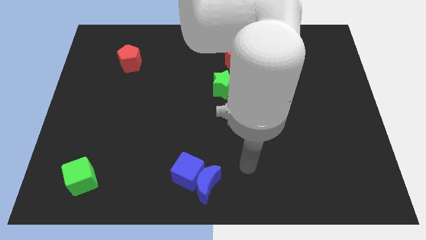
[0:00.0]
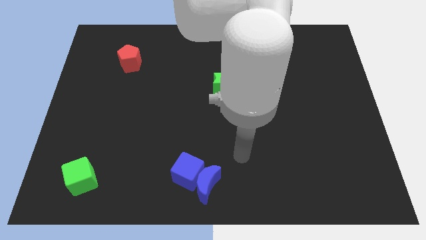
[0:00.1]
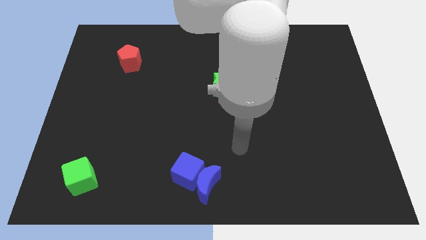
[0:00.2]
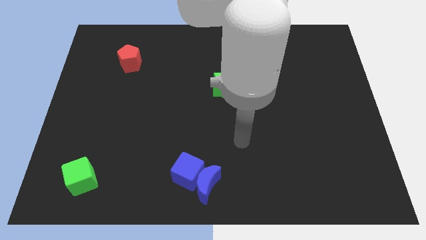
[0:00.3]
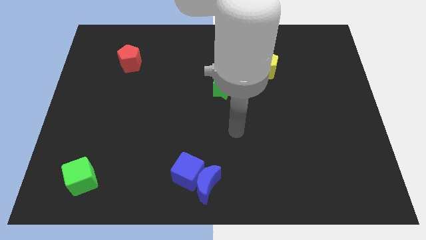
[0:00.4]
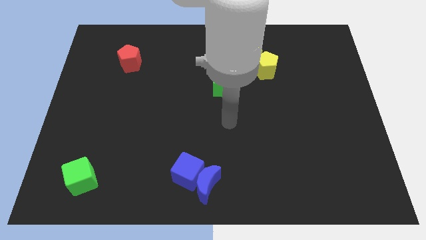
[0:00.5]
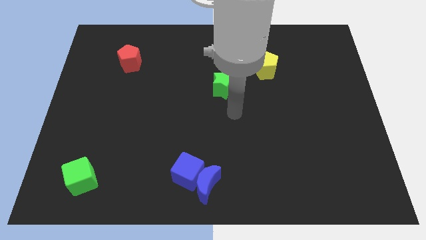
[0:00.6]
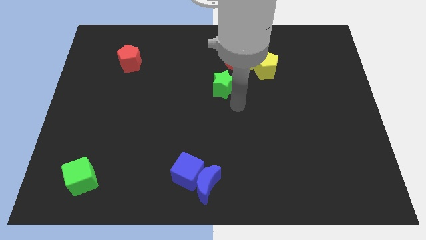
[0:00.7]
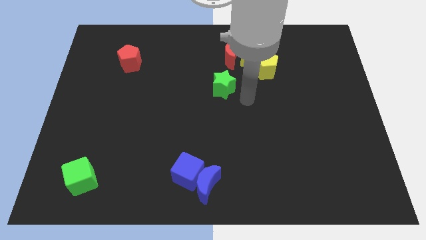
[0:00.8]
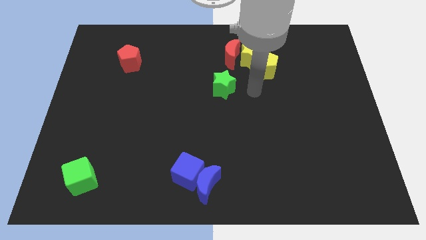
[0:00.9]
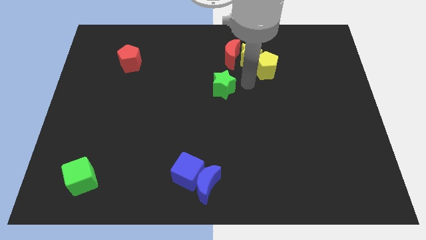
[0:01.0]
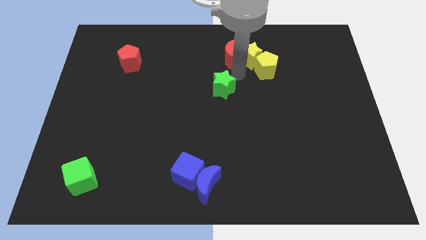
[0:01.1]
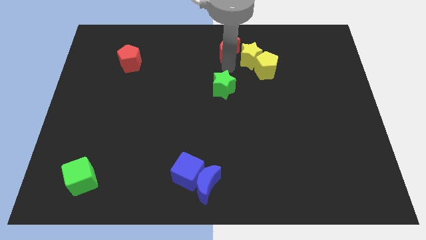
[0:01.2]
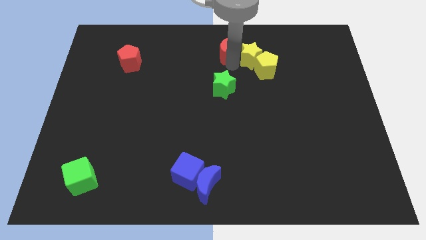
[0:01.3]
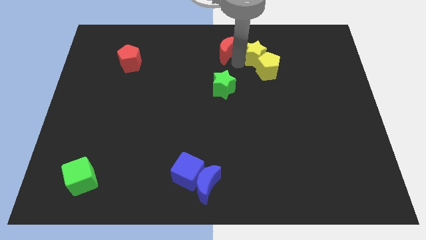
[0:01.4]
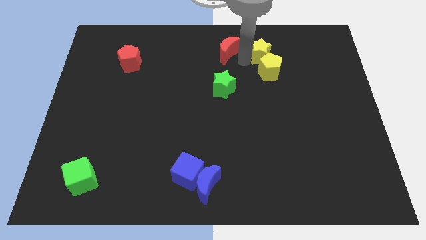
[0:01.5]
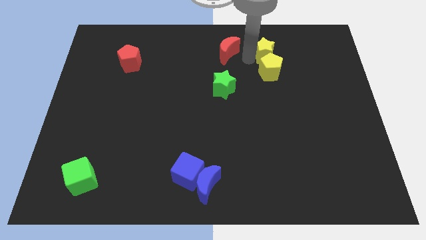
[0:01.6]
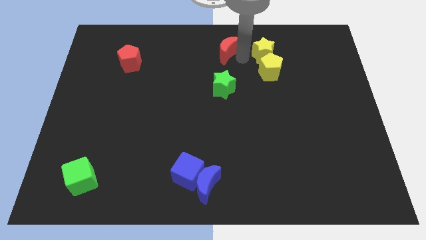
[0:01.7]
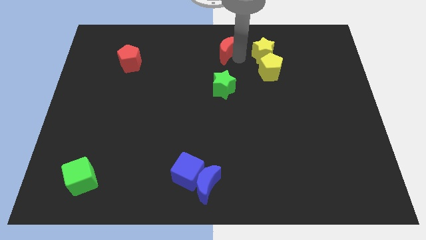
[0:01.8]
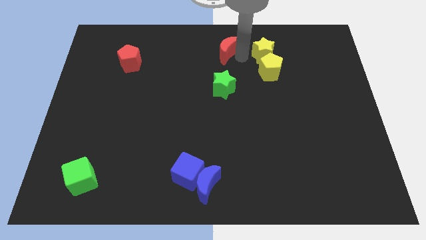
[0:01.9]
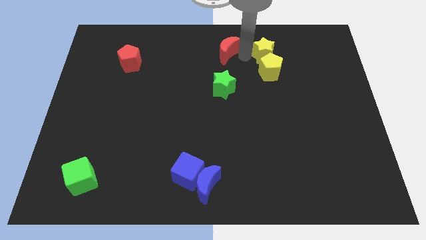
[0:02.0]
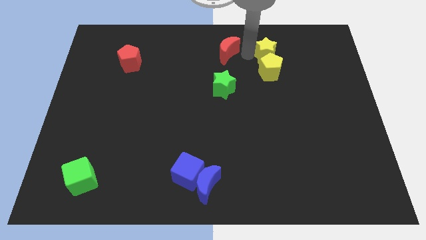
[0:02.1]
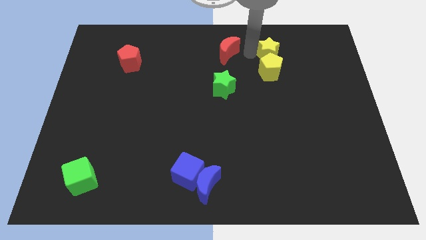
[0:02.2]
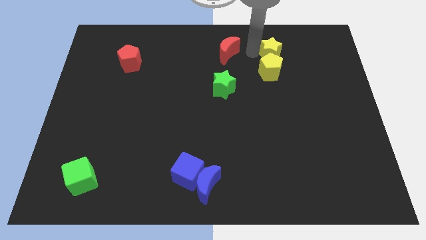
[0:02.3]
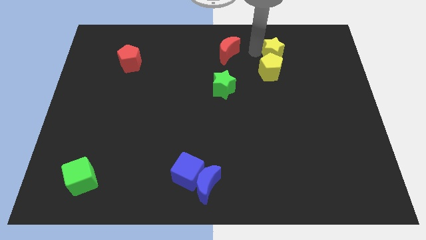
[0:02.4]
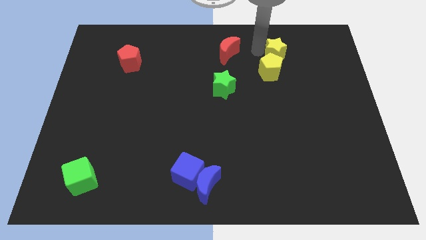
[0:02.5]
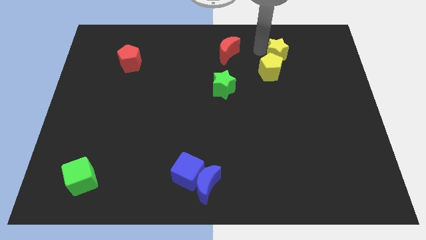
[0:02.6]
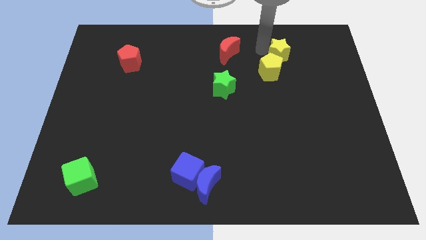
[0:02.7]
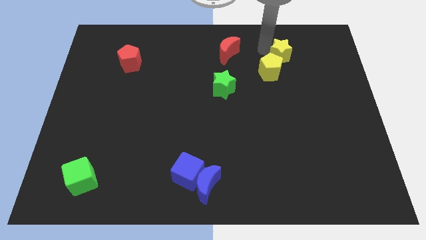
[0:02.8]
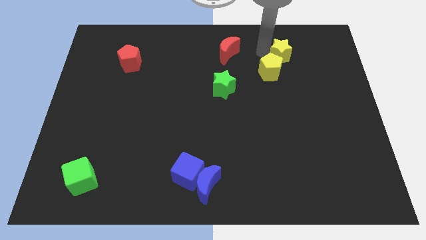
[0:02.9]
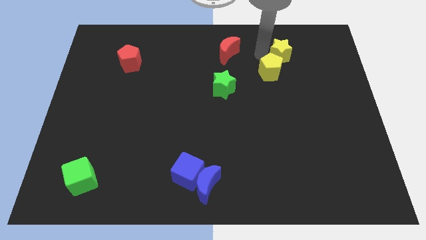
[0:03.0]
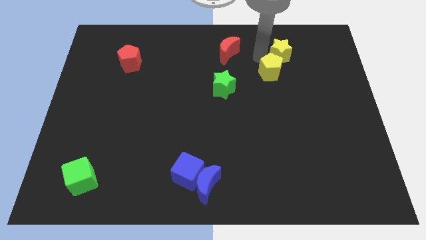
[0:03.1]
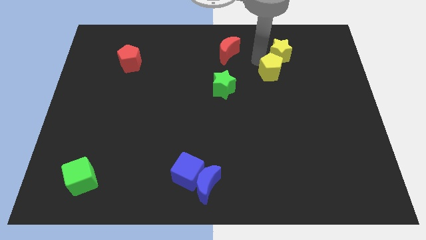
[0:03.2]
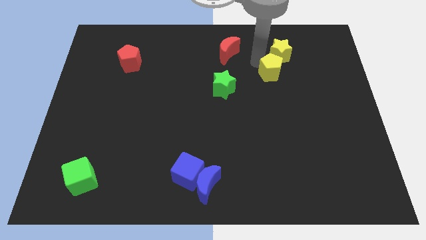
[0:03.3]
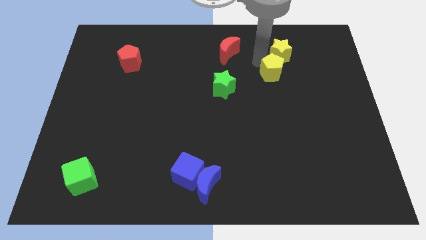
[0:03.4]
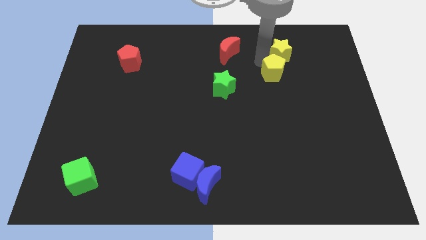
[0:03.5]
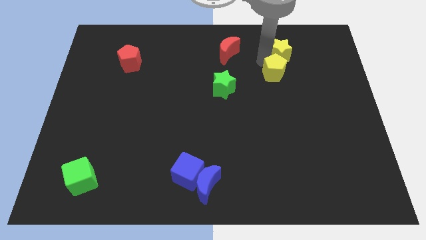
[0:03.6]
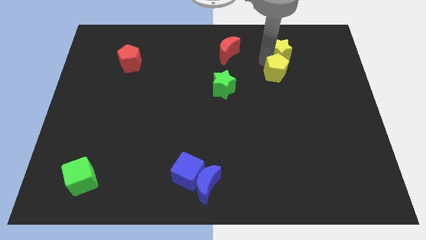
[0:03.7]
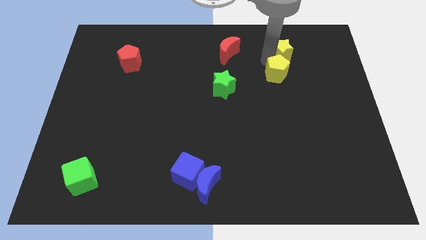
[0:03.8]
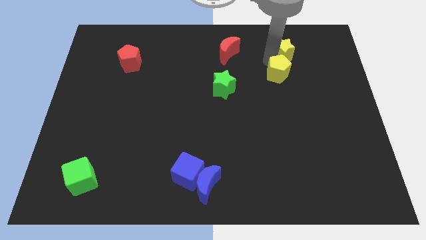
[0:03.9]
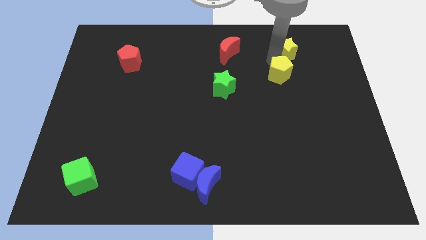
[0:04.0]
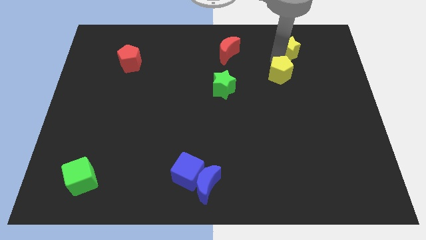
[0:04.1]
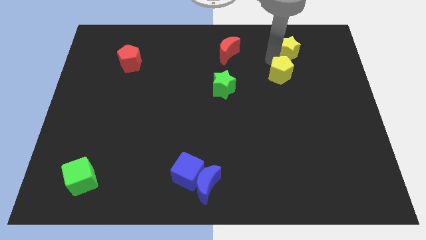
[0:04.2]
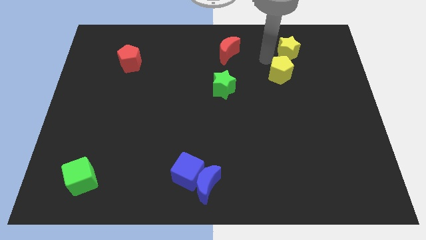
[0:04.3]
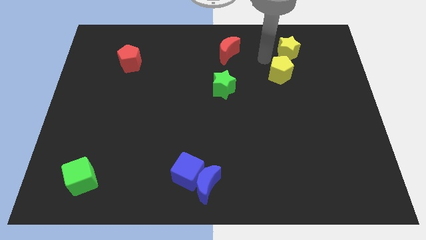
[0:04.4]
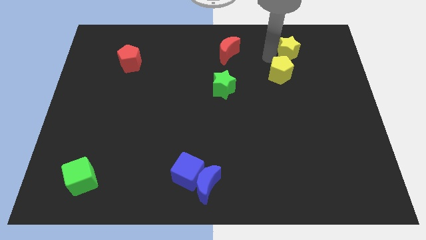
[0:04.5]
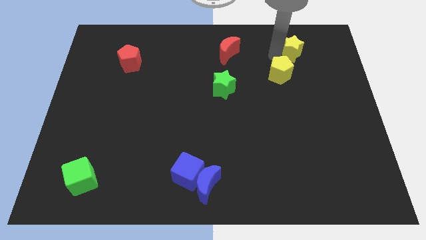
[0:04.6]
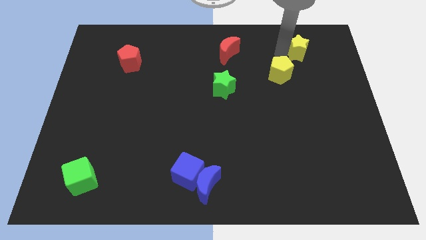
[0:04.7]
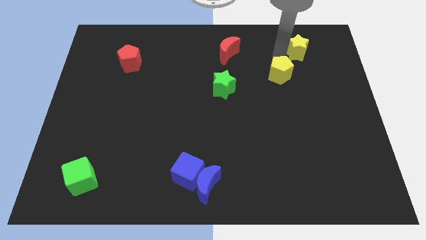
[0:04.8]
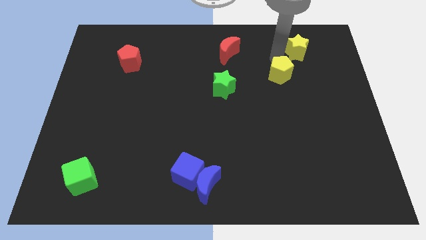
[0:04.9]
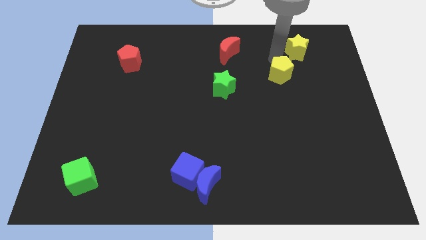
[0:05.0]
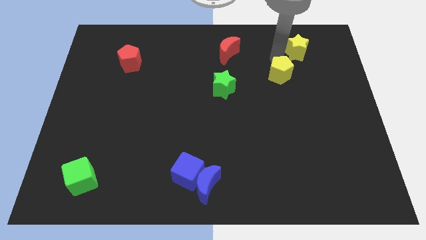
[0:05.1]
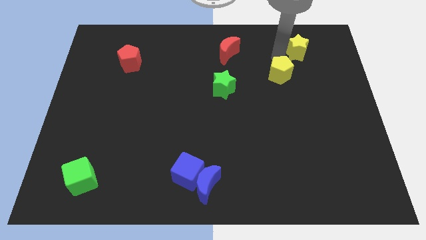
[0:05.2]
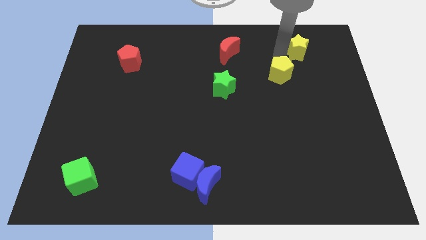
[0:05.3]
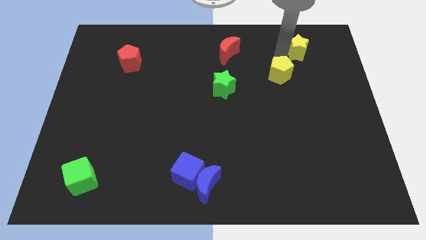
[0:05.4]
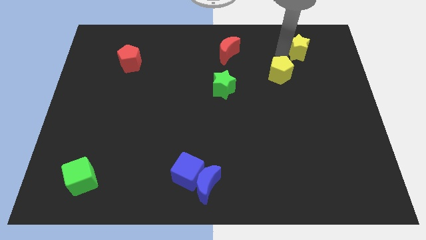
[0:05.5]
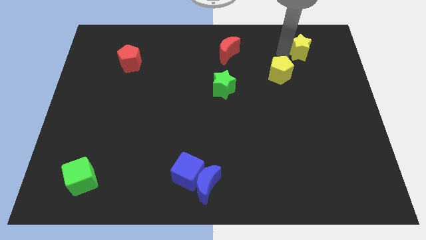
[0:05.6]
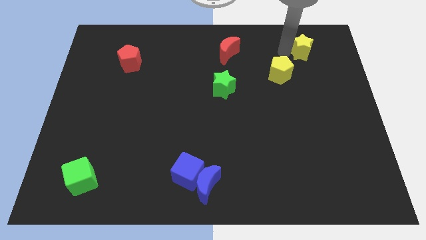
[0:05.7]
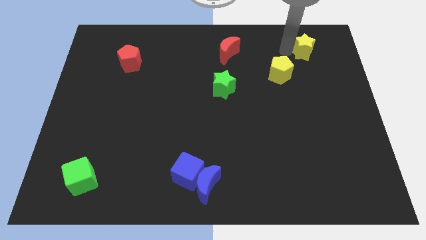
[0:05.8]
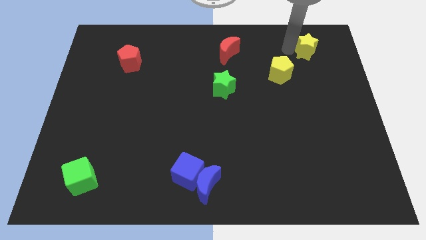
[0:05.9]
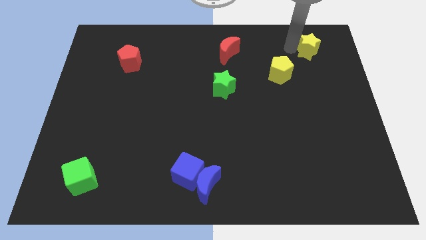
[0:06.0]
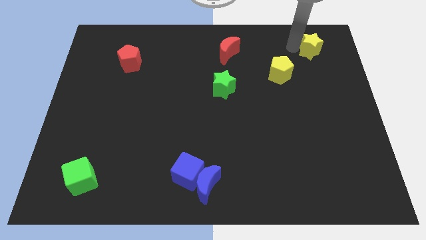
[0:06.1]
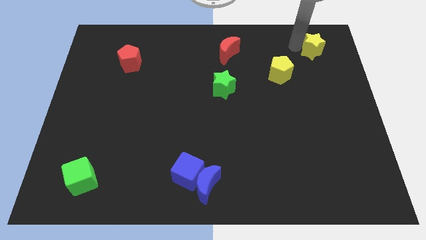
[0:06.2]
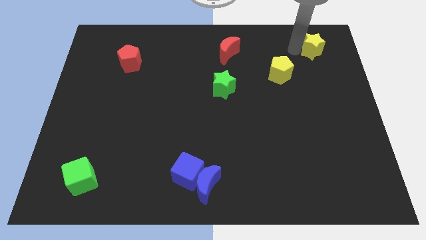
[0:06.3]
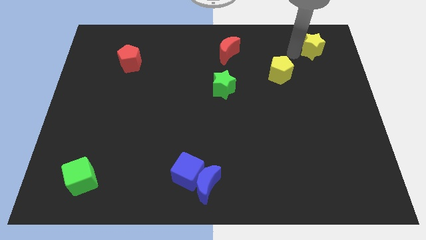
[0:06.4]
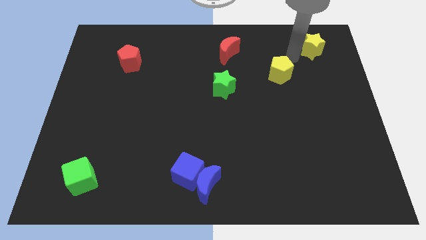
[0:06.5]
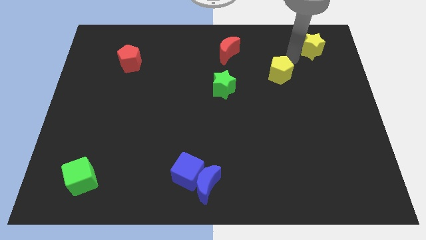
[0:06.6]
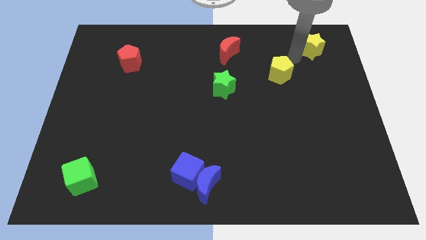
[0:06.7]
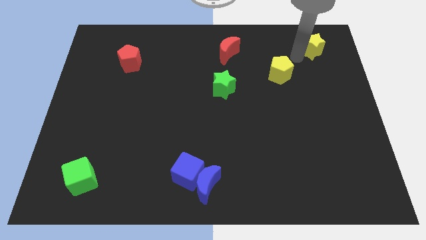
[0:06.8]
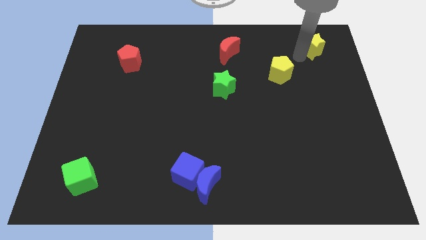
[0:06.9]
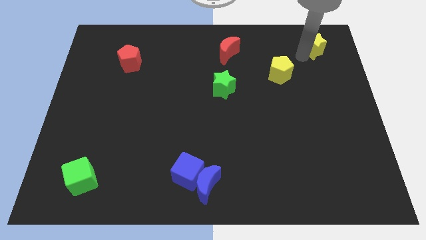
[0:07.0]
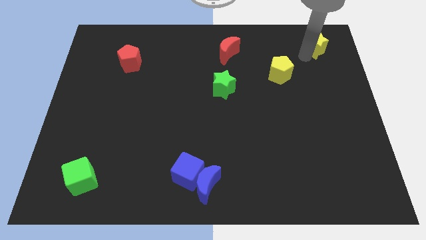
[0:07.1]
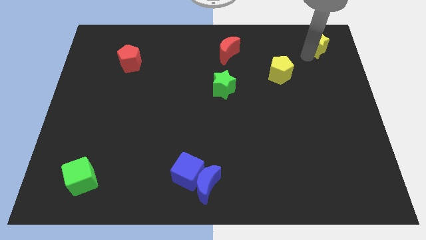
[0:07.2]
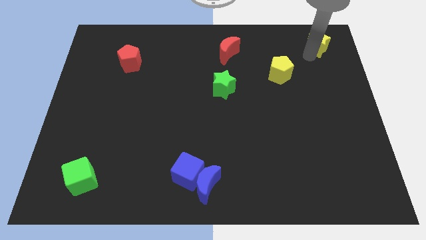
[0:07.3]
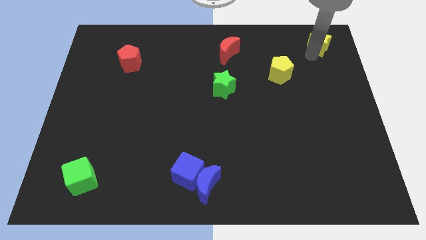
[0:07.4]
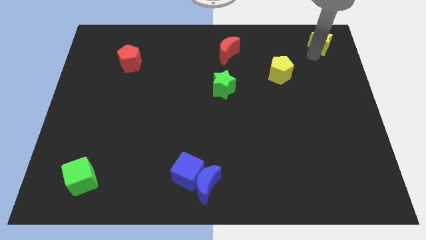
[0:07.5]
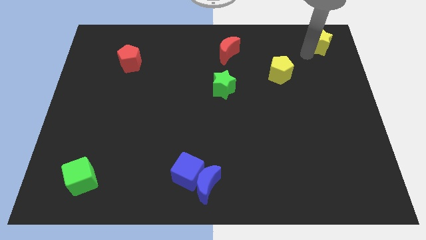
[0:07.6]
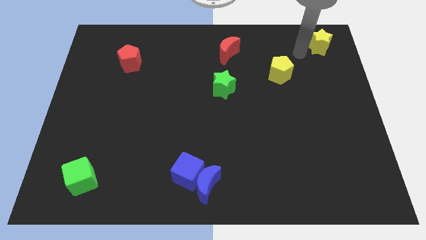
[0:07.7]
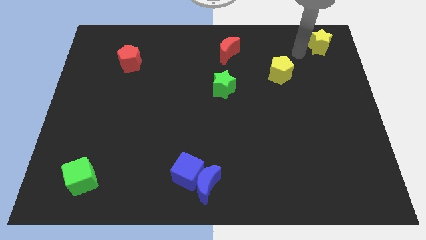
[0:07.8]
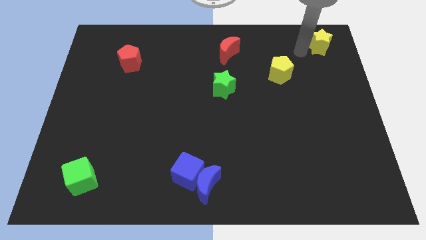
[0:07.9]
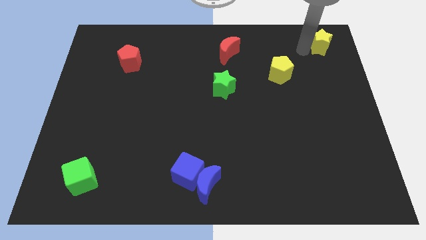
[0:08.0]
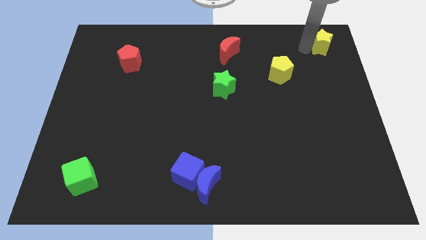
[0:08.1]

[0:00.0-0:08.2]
push the yellow star to the top right
